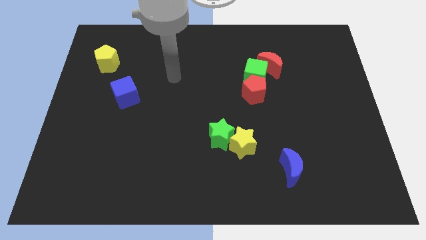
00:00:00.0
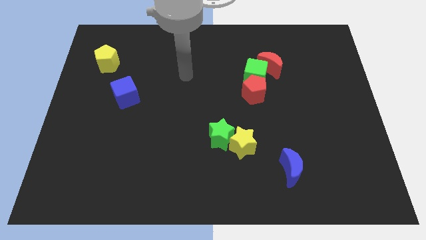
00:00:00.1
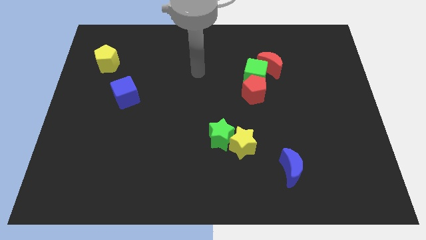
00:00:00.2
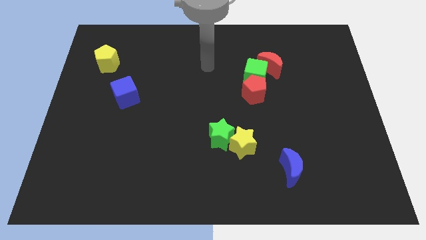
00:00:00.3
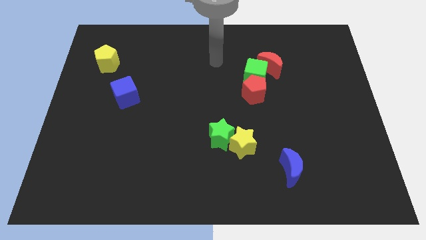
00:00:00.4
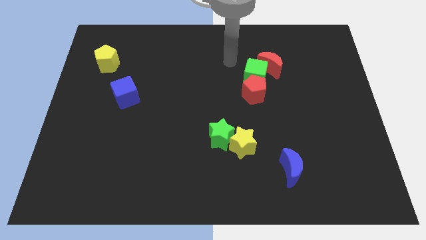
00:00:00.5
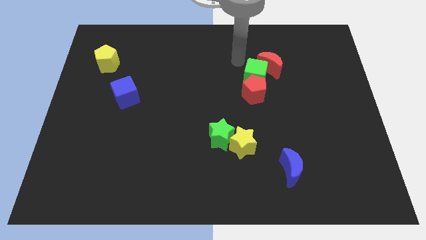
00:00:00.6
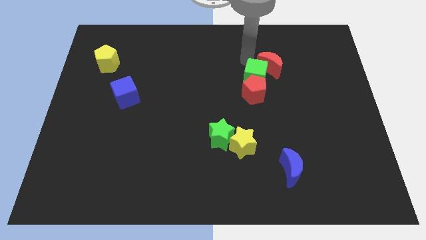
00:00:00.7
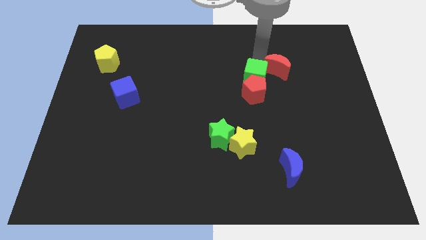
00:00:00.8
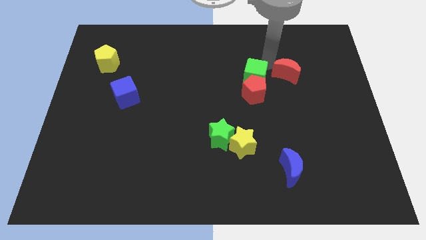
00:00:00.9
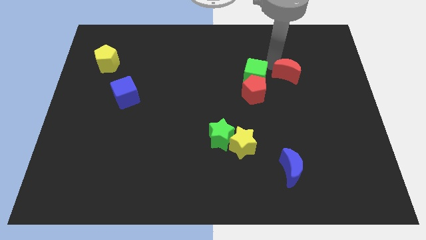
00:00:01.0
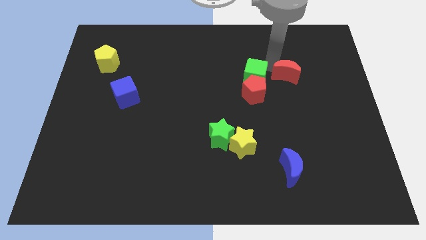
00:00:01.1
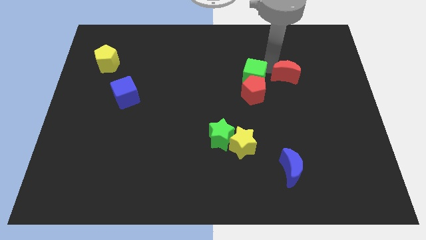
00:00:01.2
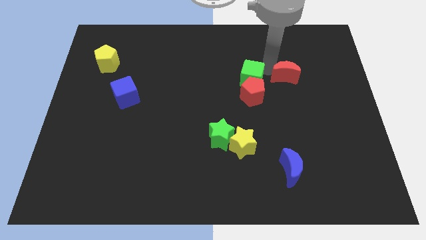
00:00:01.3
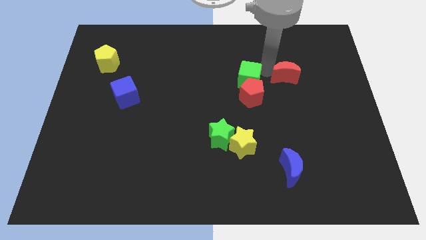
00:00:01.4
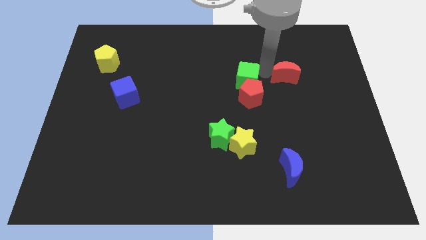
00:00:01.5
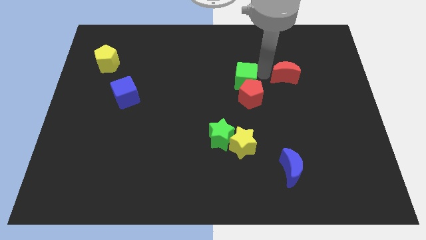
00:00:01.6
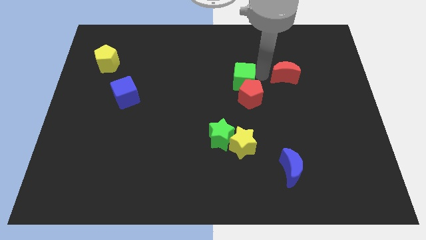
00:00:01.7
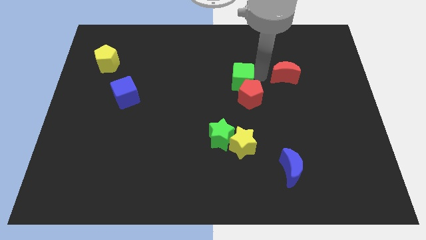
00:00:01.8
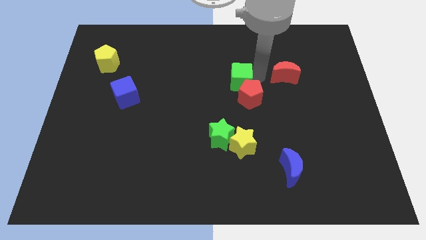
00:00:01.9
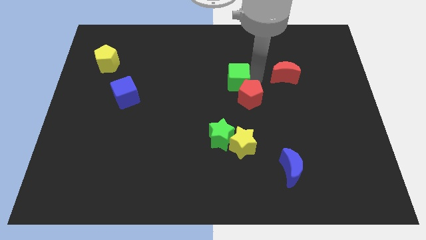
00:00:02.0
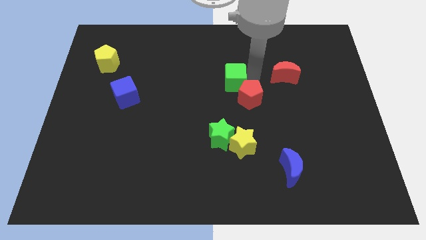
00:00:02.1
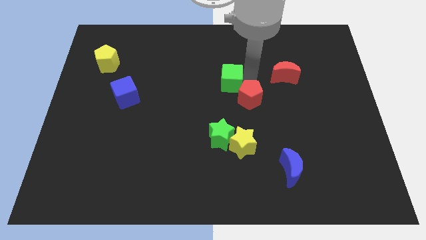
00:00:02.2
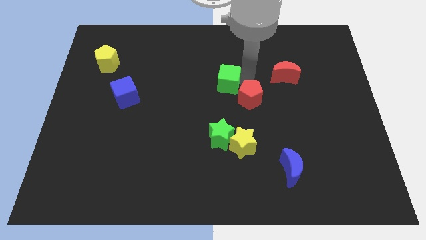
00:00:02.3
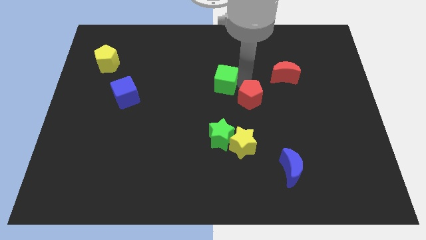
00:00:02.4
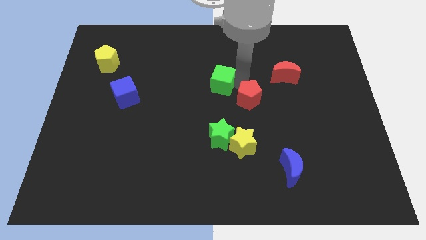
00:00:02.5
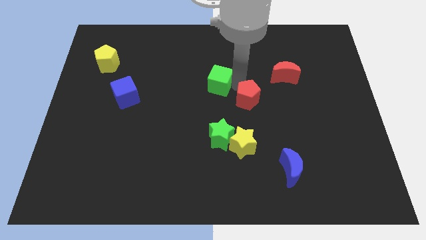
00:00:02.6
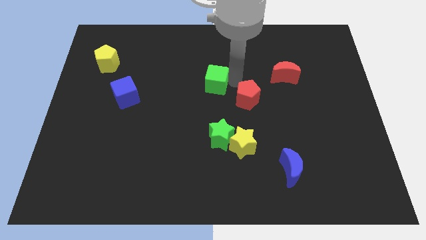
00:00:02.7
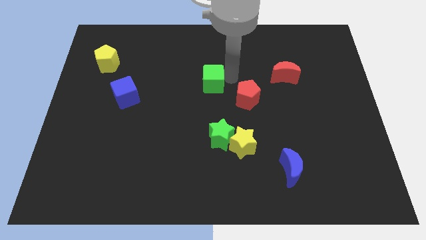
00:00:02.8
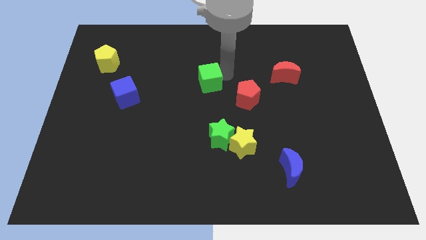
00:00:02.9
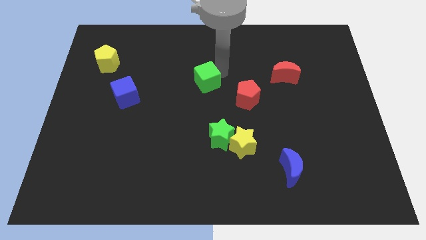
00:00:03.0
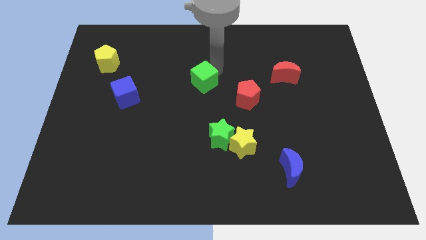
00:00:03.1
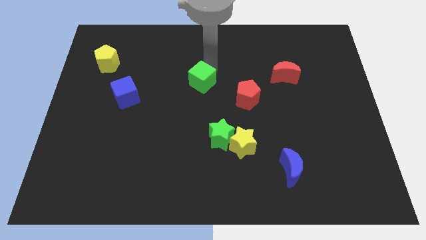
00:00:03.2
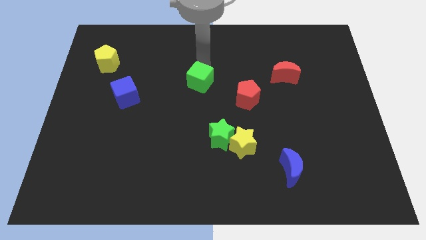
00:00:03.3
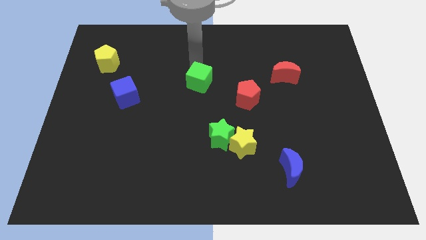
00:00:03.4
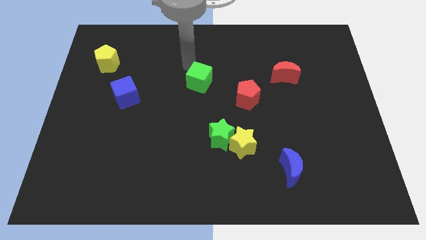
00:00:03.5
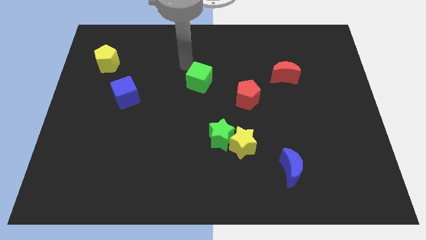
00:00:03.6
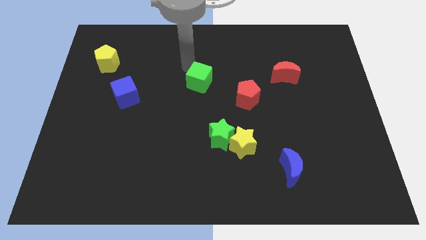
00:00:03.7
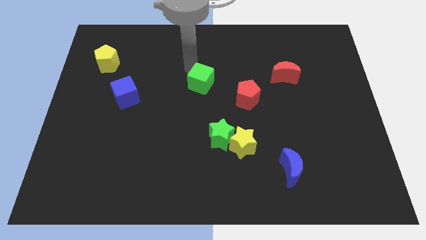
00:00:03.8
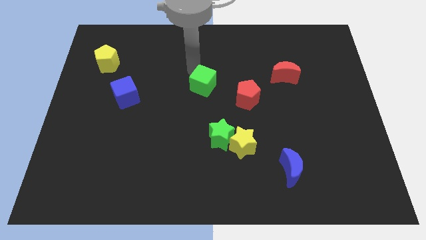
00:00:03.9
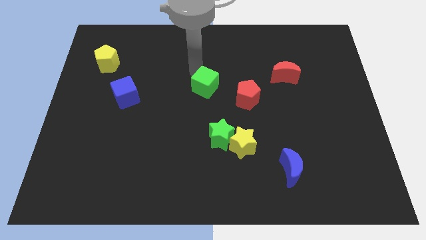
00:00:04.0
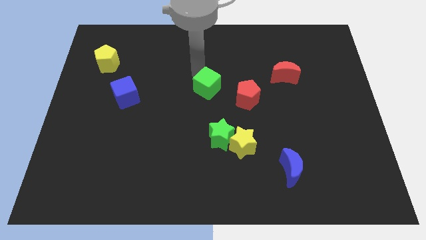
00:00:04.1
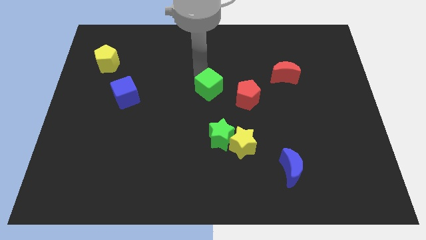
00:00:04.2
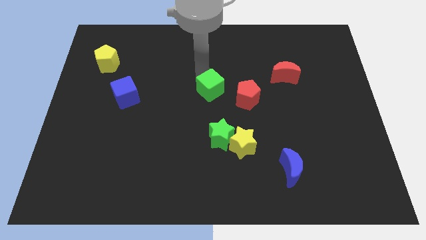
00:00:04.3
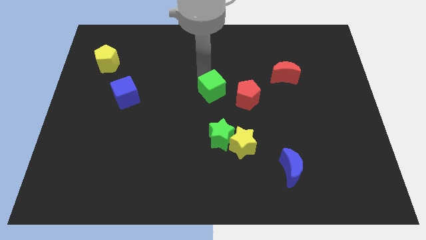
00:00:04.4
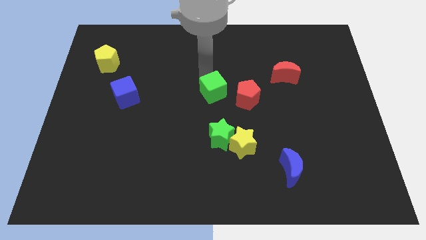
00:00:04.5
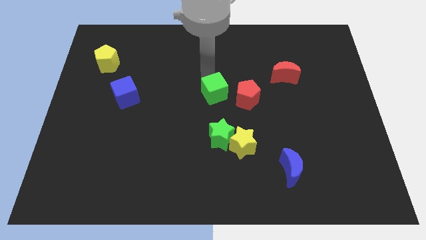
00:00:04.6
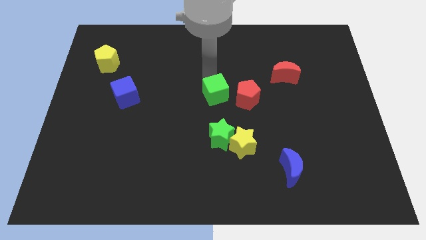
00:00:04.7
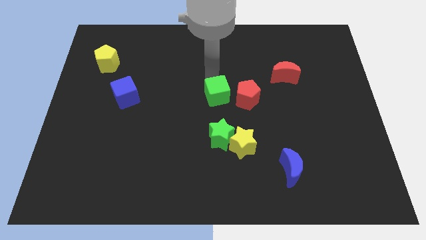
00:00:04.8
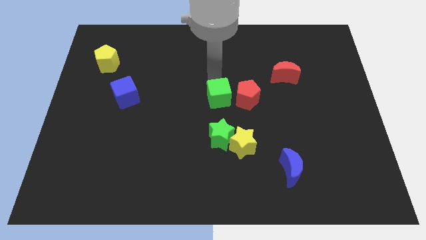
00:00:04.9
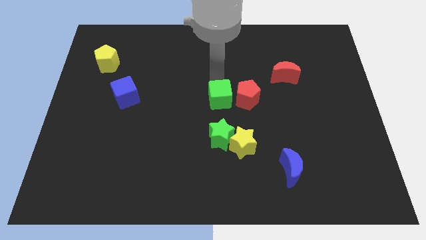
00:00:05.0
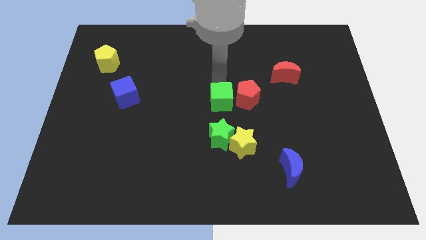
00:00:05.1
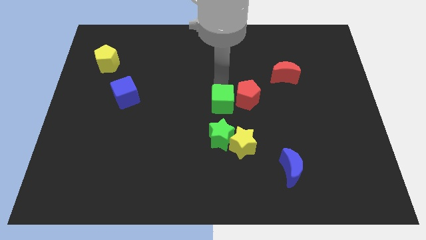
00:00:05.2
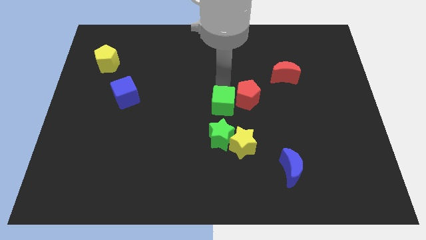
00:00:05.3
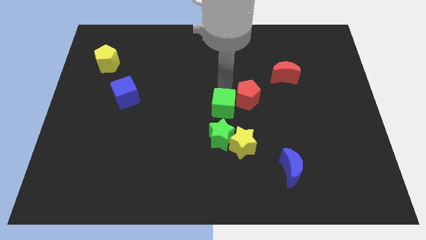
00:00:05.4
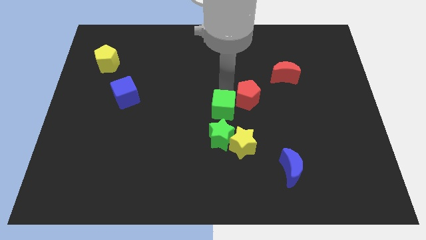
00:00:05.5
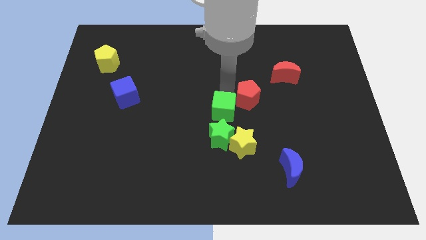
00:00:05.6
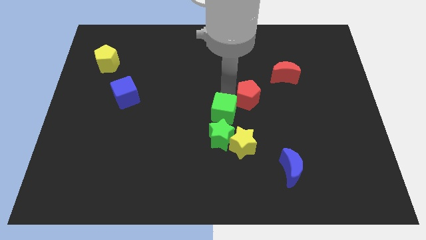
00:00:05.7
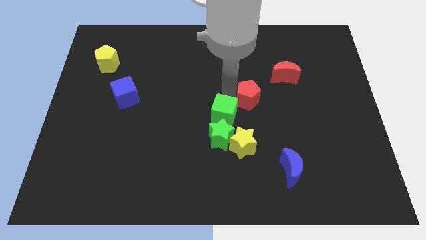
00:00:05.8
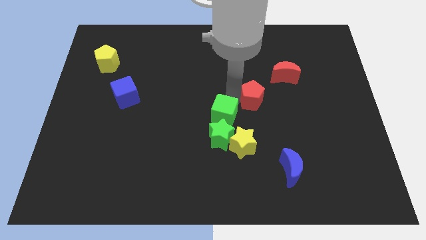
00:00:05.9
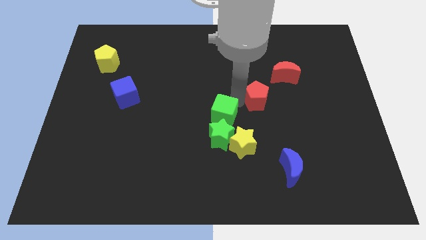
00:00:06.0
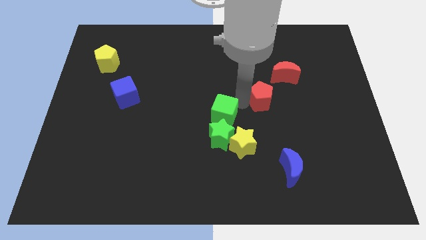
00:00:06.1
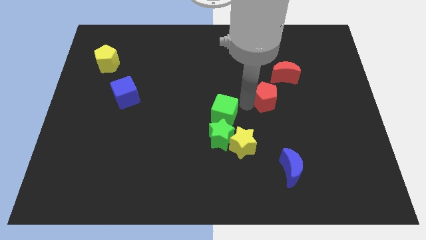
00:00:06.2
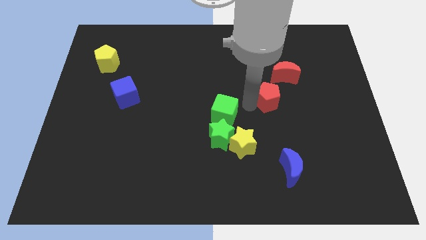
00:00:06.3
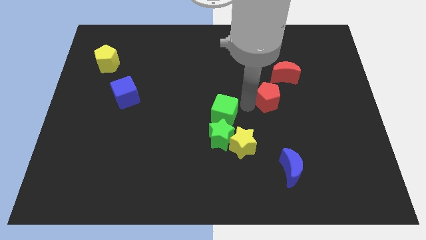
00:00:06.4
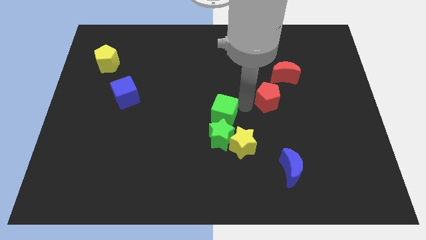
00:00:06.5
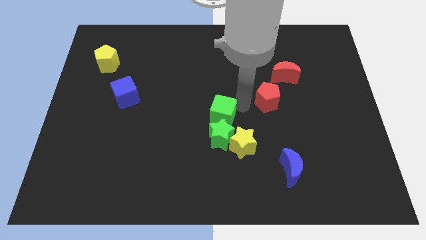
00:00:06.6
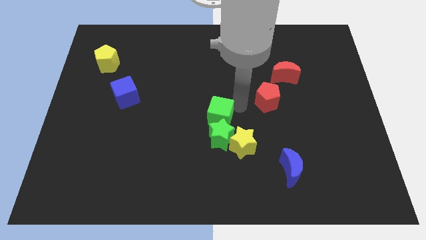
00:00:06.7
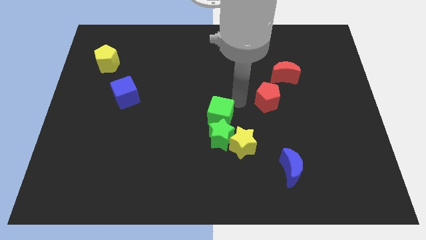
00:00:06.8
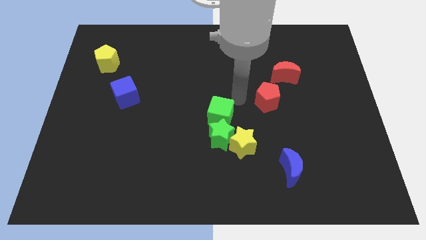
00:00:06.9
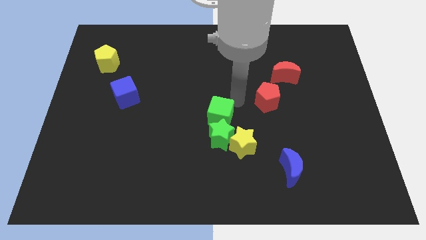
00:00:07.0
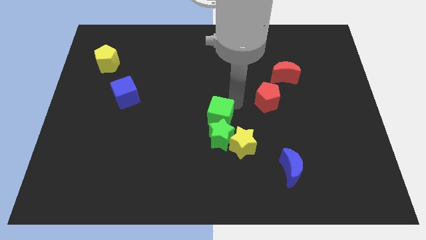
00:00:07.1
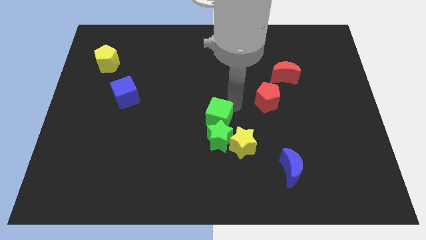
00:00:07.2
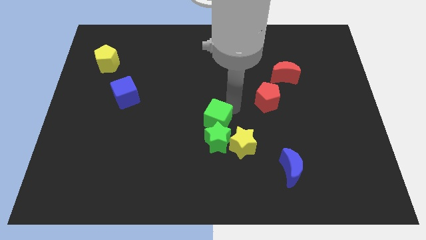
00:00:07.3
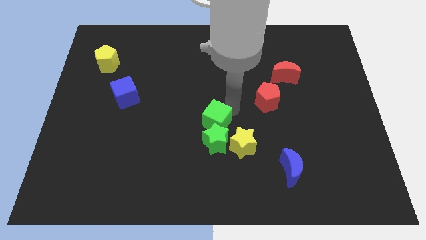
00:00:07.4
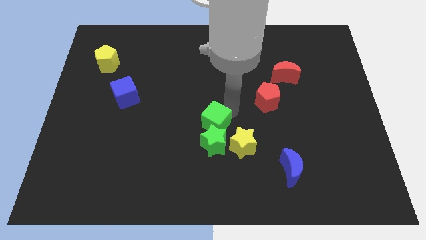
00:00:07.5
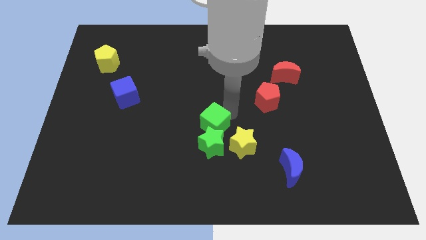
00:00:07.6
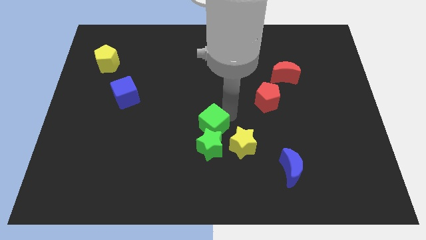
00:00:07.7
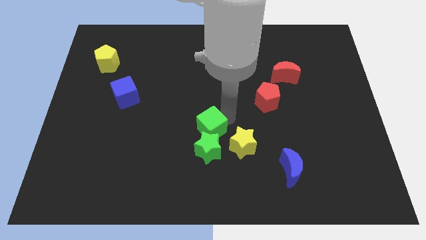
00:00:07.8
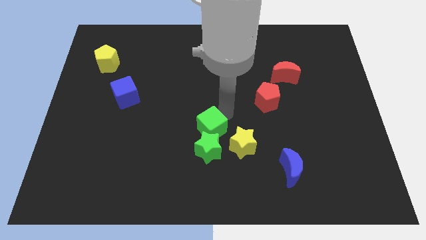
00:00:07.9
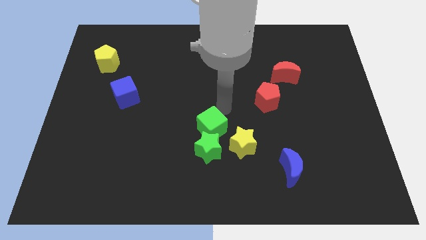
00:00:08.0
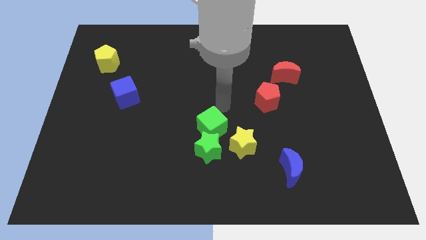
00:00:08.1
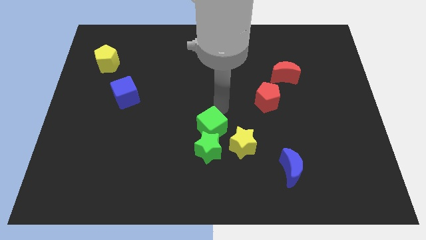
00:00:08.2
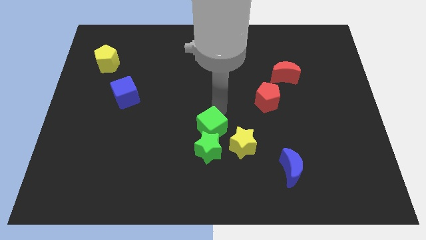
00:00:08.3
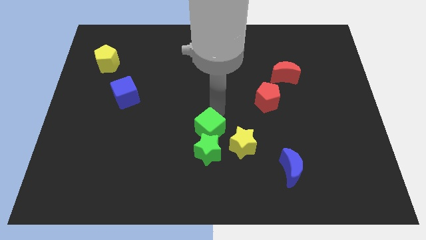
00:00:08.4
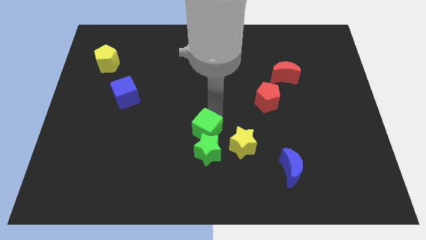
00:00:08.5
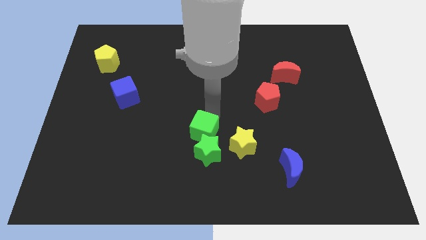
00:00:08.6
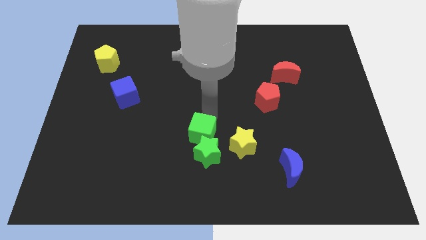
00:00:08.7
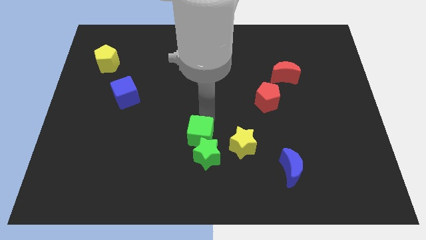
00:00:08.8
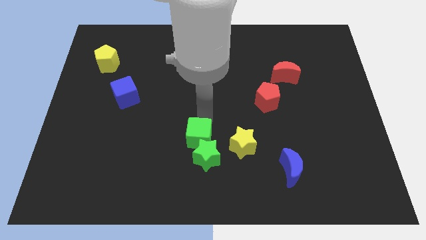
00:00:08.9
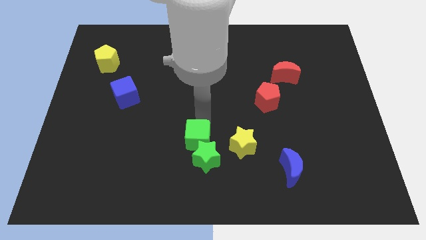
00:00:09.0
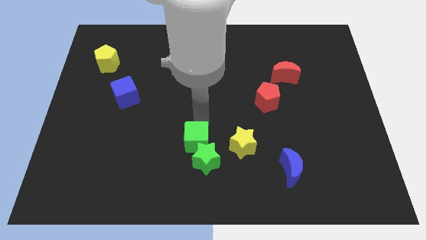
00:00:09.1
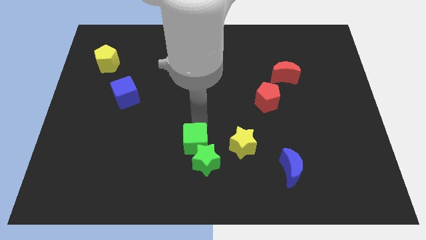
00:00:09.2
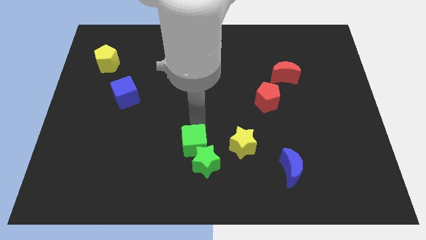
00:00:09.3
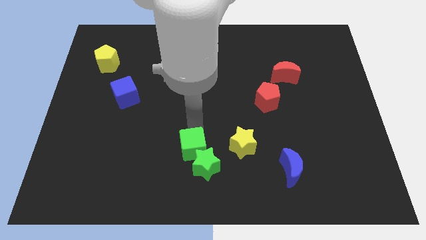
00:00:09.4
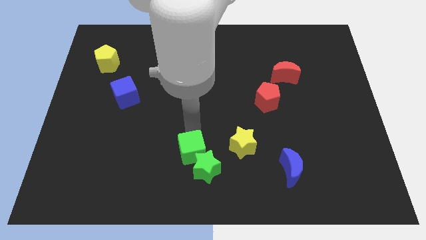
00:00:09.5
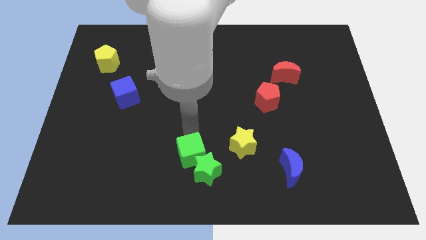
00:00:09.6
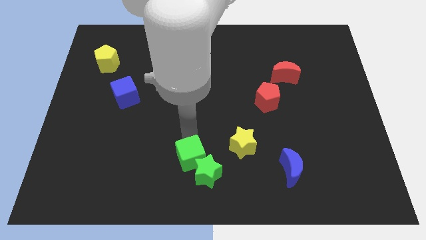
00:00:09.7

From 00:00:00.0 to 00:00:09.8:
slide the green cube to the bottom
